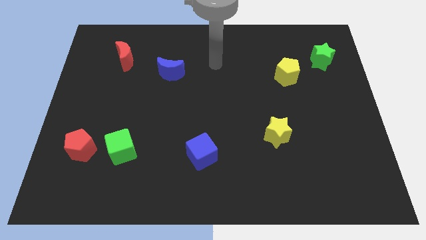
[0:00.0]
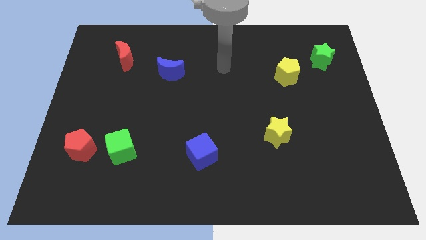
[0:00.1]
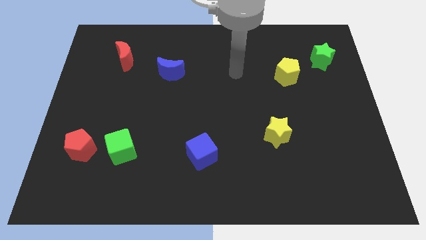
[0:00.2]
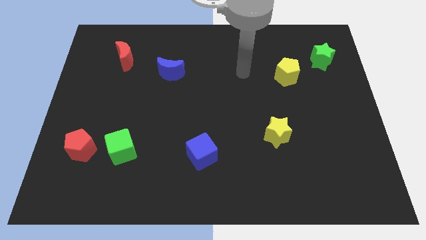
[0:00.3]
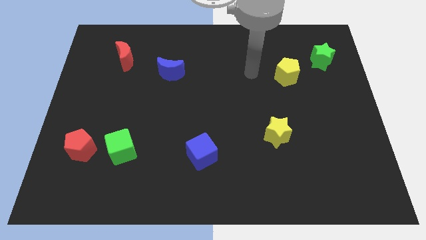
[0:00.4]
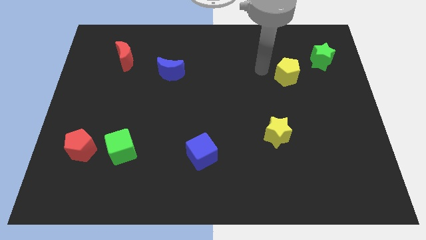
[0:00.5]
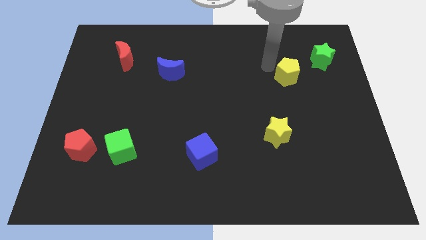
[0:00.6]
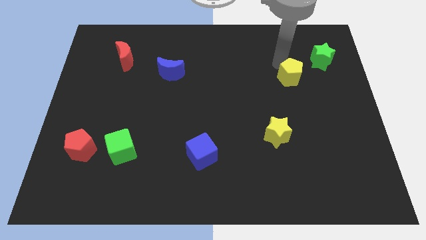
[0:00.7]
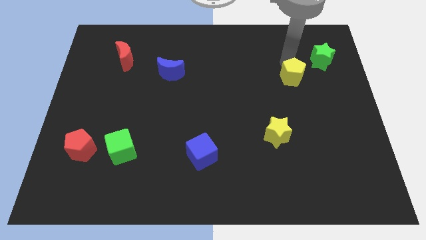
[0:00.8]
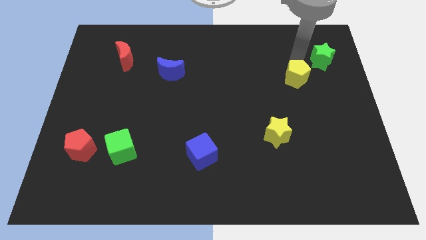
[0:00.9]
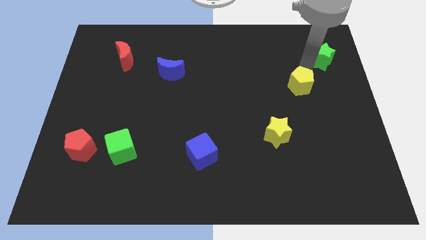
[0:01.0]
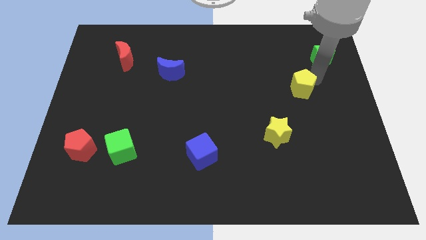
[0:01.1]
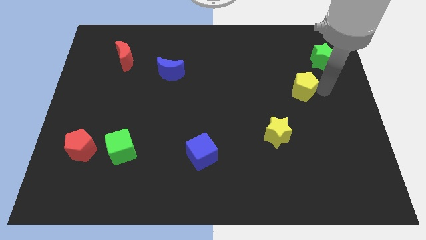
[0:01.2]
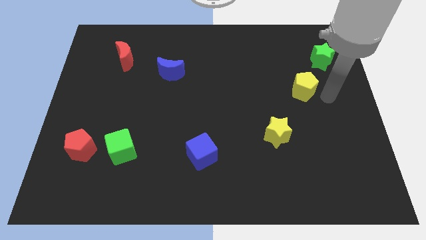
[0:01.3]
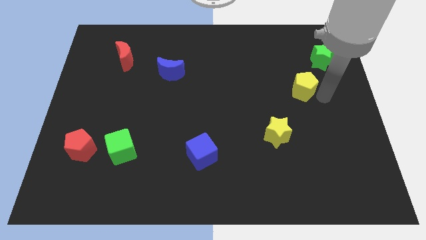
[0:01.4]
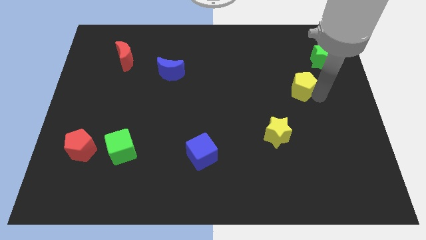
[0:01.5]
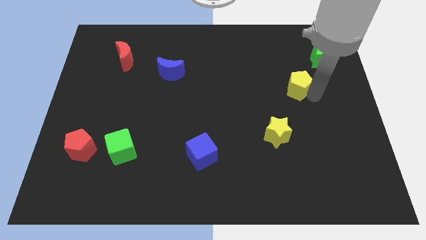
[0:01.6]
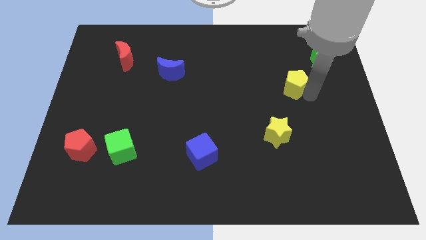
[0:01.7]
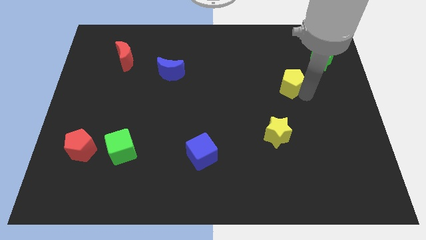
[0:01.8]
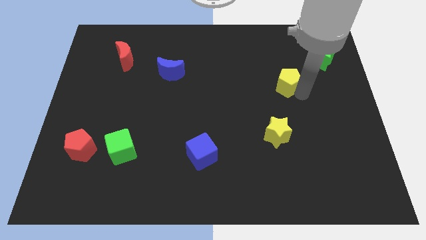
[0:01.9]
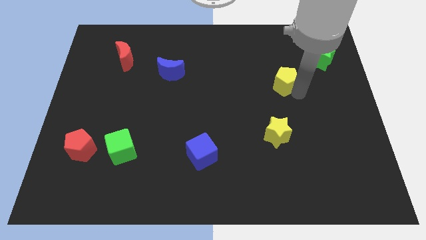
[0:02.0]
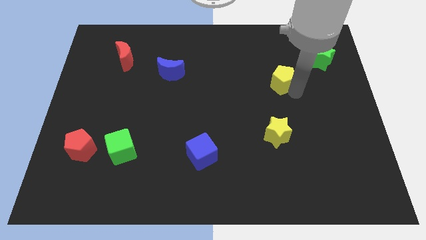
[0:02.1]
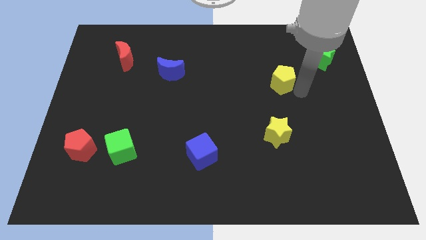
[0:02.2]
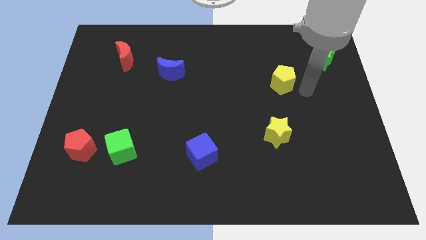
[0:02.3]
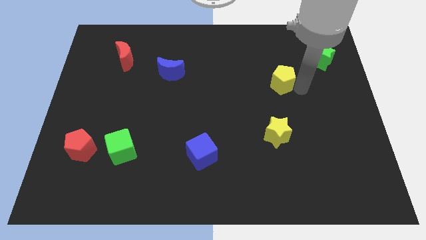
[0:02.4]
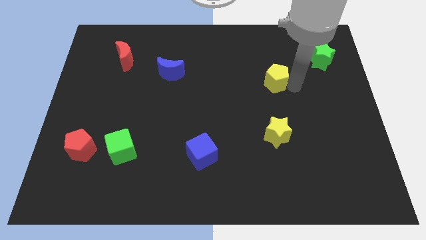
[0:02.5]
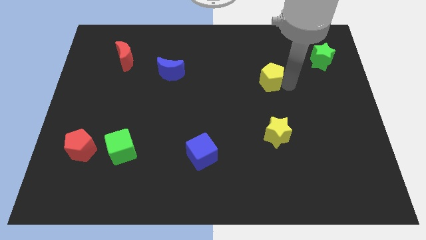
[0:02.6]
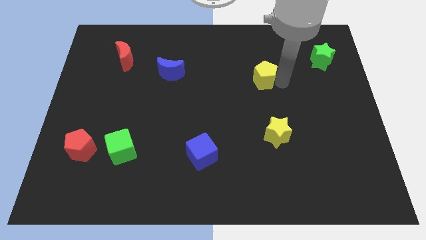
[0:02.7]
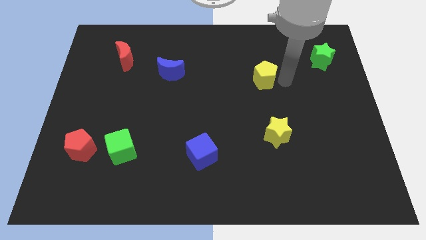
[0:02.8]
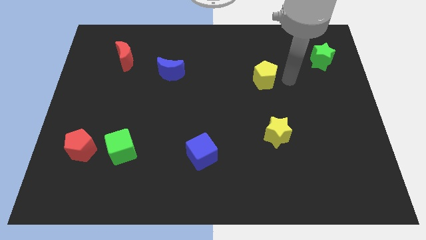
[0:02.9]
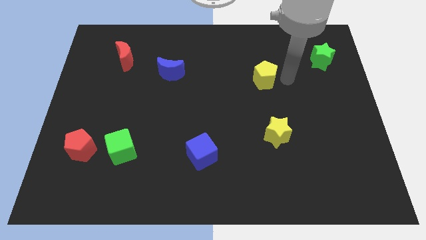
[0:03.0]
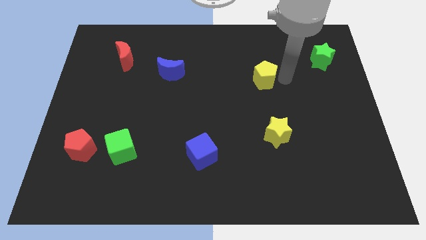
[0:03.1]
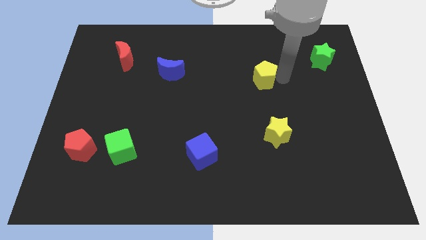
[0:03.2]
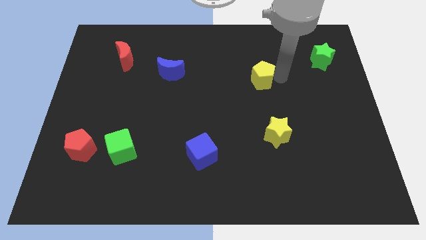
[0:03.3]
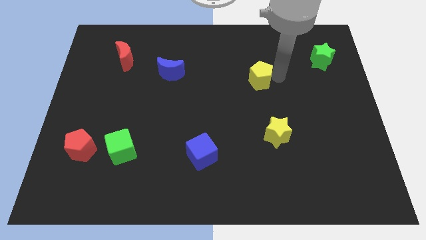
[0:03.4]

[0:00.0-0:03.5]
slightly slide the yellow pentagon left

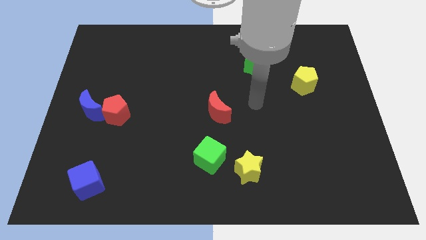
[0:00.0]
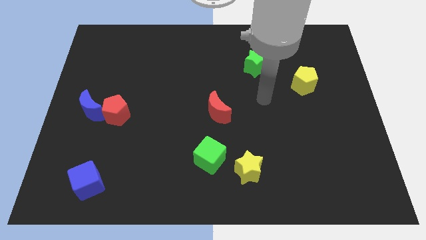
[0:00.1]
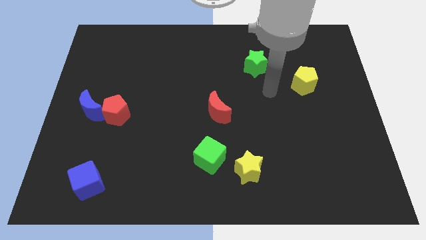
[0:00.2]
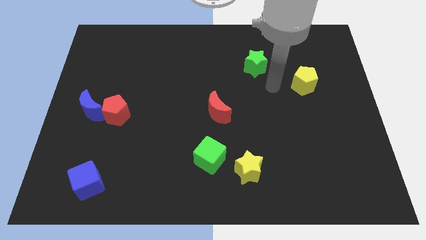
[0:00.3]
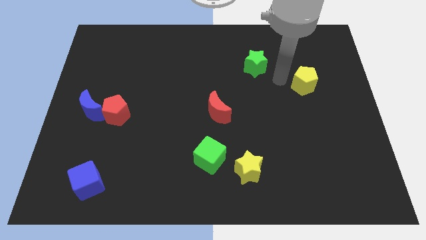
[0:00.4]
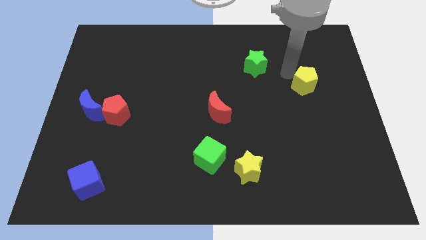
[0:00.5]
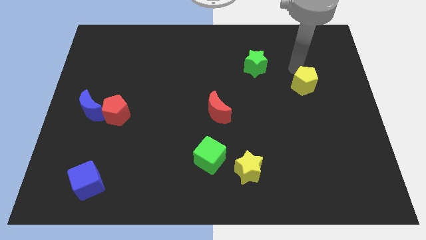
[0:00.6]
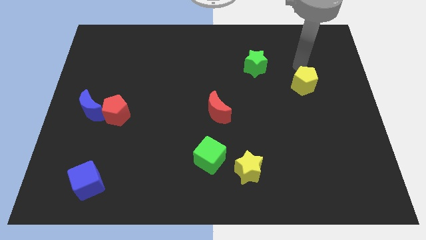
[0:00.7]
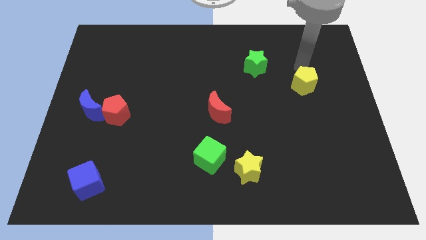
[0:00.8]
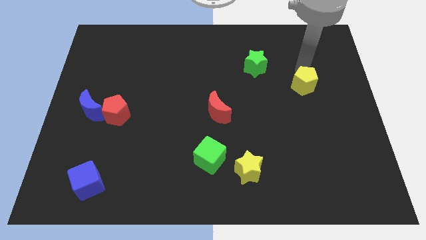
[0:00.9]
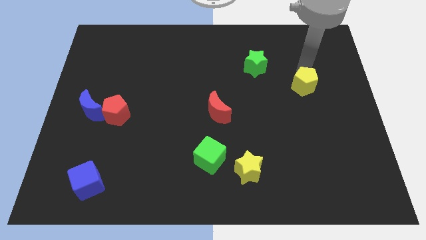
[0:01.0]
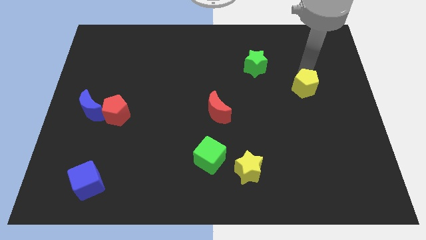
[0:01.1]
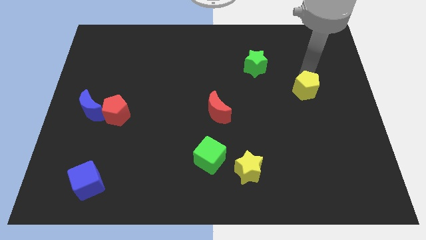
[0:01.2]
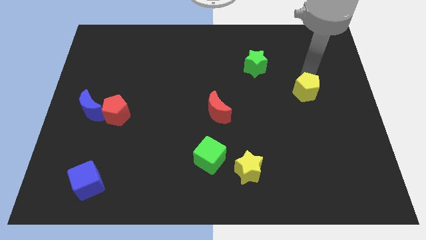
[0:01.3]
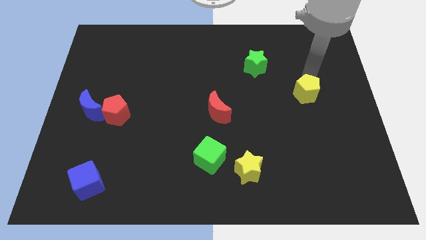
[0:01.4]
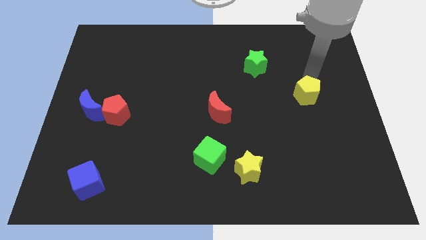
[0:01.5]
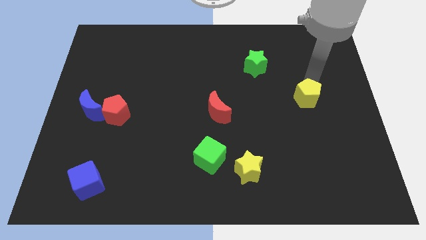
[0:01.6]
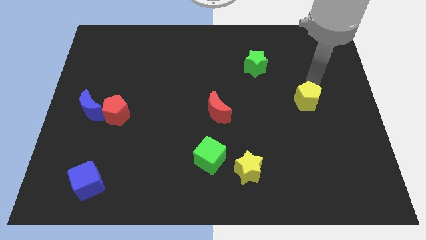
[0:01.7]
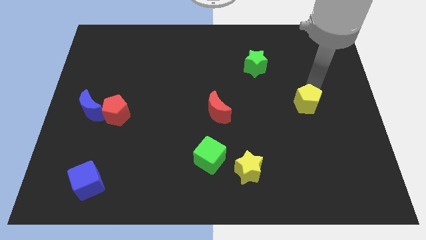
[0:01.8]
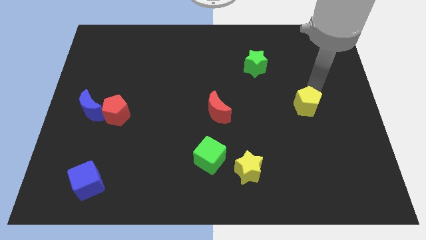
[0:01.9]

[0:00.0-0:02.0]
slightly push the yellow pentagon downwards

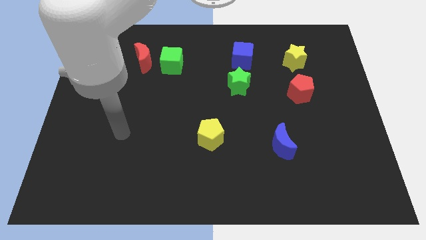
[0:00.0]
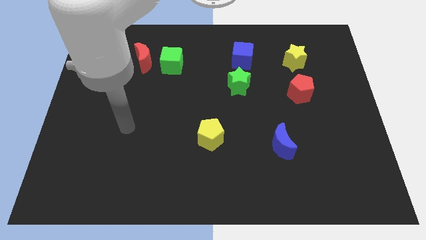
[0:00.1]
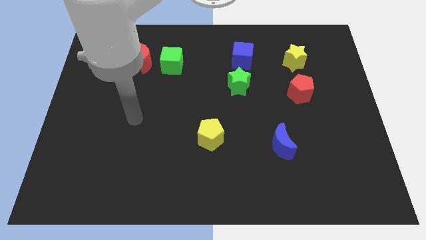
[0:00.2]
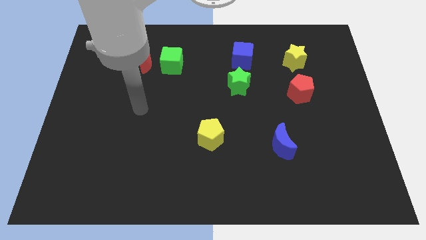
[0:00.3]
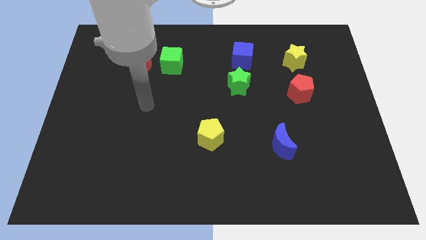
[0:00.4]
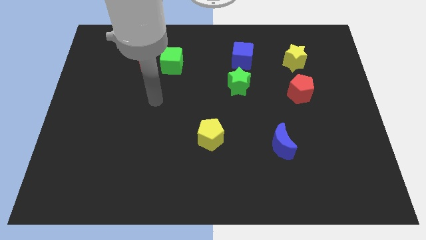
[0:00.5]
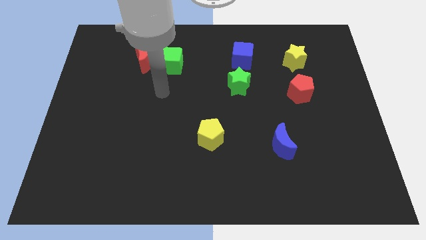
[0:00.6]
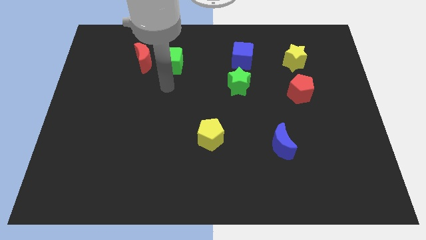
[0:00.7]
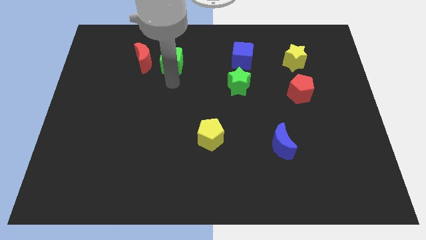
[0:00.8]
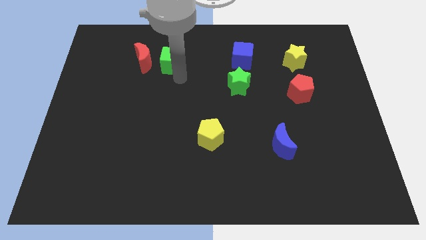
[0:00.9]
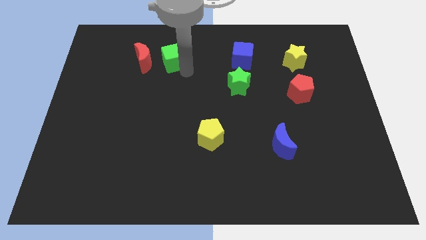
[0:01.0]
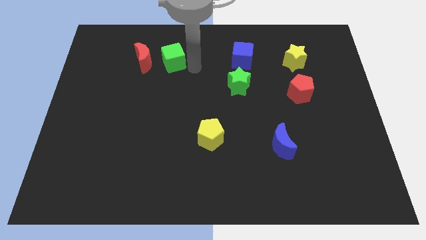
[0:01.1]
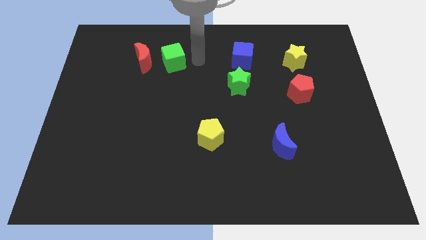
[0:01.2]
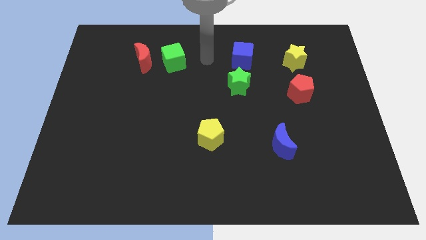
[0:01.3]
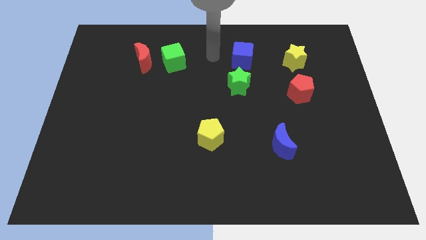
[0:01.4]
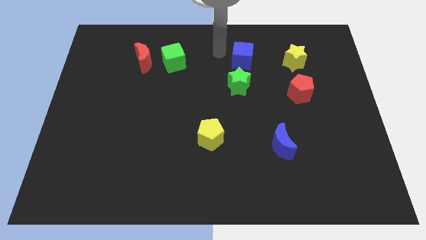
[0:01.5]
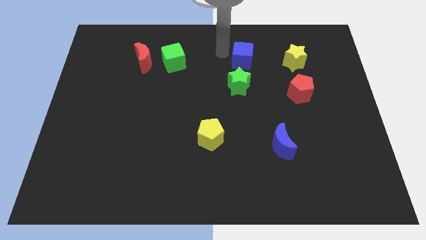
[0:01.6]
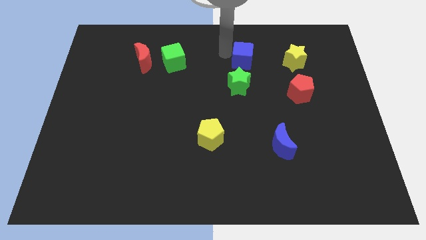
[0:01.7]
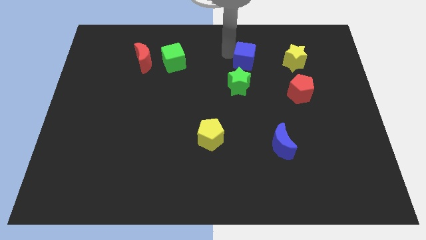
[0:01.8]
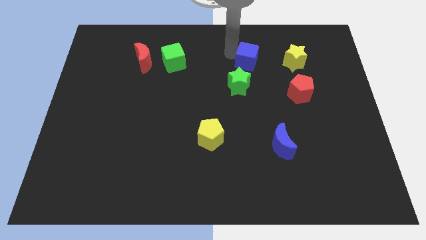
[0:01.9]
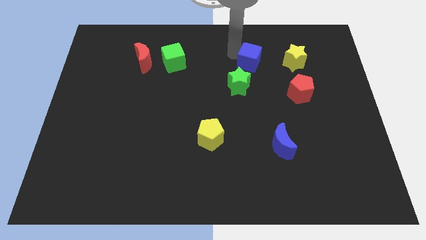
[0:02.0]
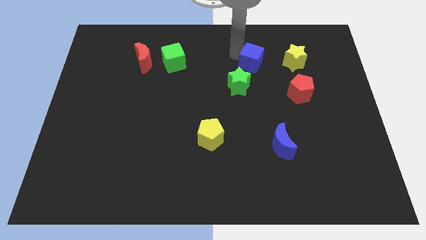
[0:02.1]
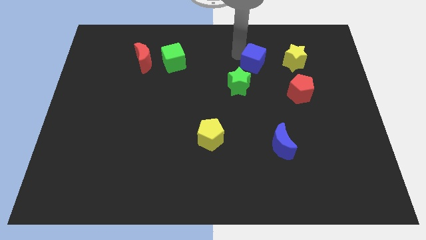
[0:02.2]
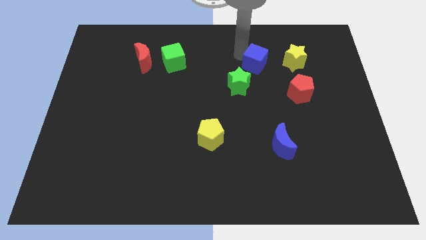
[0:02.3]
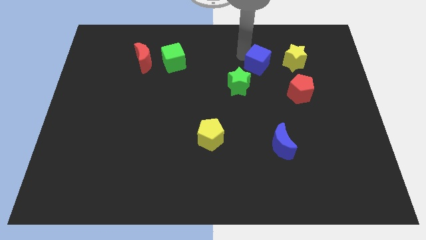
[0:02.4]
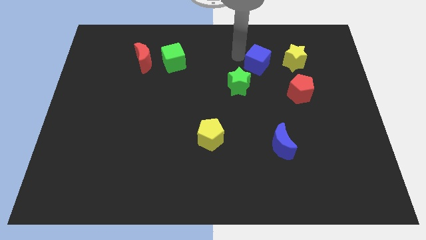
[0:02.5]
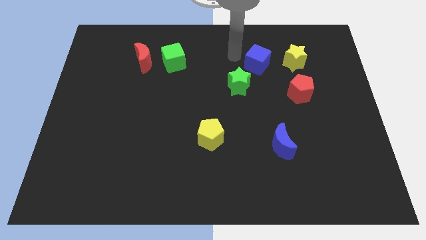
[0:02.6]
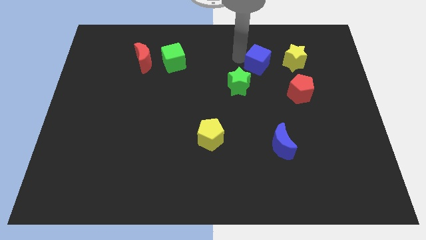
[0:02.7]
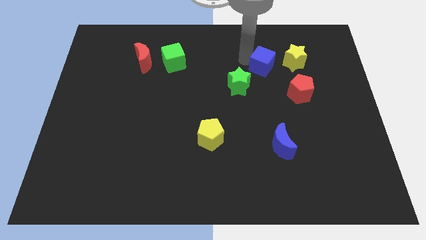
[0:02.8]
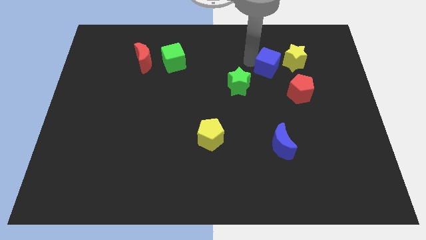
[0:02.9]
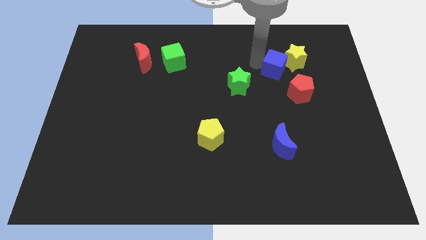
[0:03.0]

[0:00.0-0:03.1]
move the blue cube to the right a little bit
